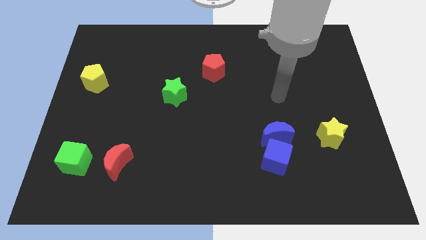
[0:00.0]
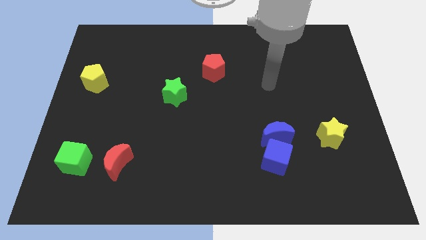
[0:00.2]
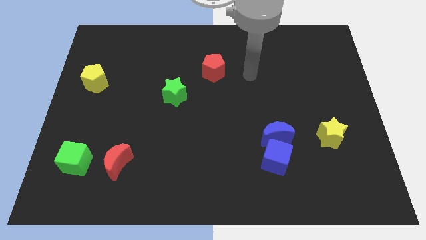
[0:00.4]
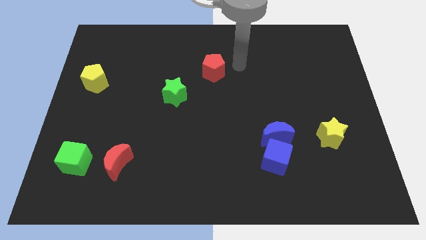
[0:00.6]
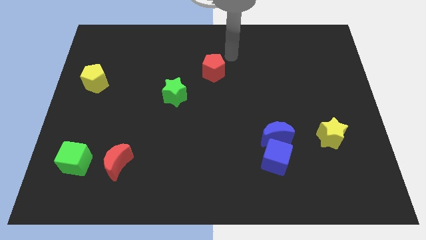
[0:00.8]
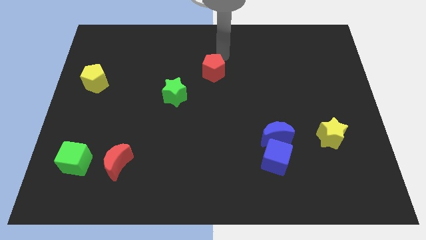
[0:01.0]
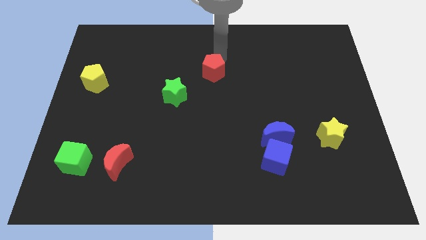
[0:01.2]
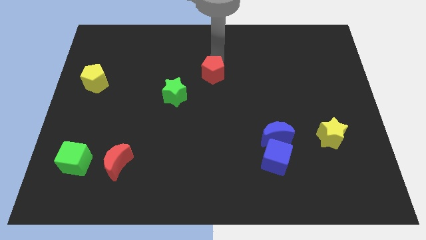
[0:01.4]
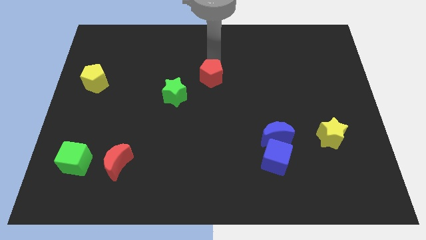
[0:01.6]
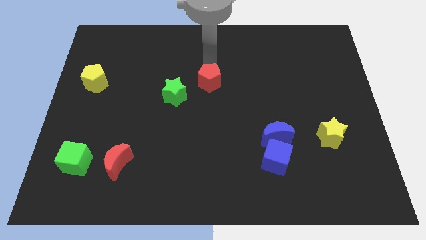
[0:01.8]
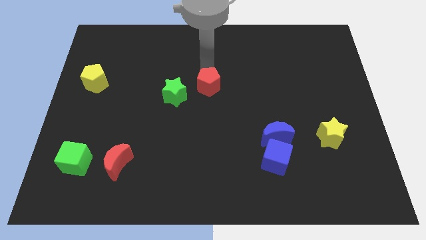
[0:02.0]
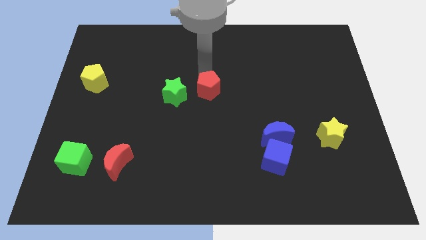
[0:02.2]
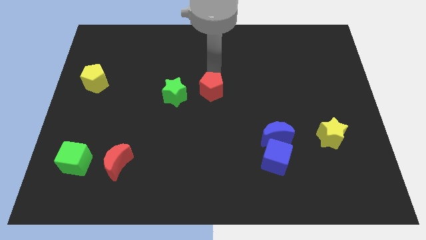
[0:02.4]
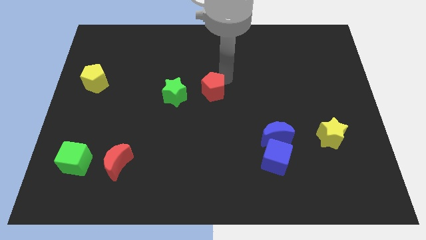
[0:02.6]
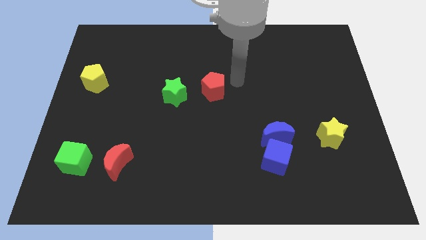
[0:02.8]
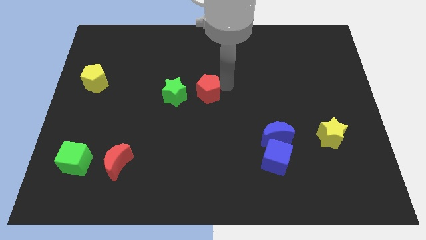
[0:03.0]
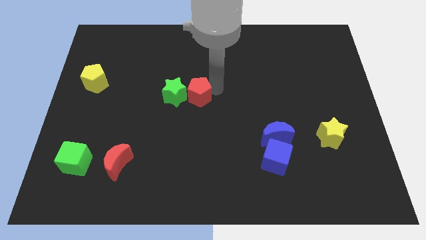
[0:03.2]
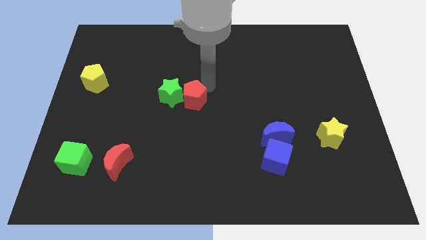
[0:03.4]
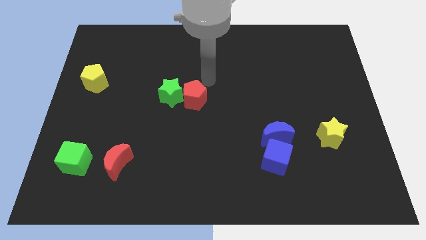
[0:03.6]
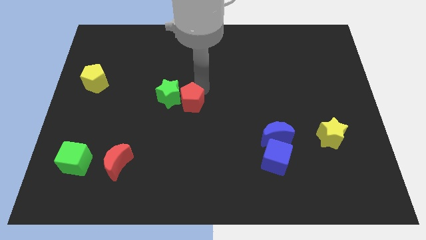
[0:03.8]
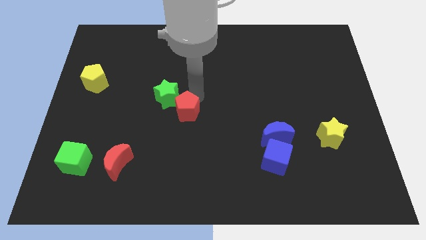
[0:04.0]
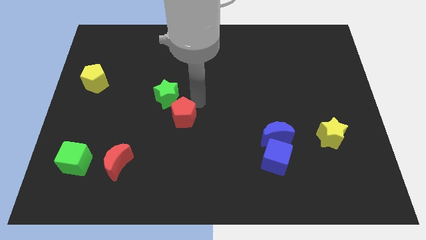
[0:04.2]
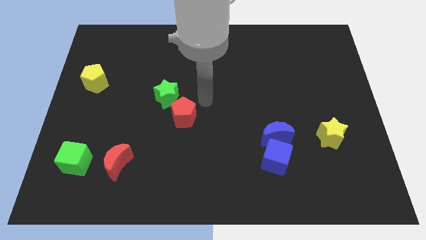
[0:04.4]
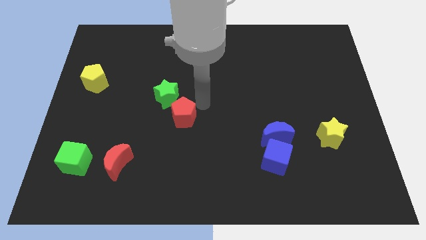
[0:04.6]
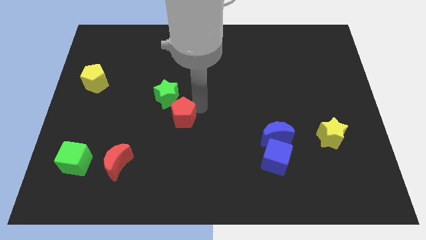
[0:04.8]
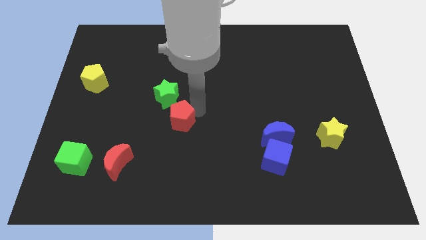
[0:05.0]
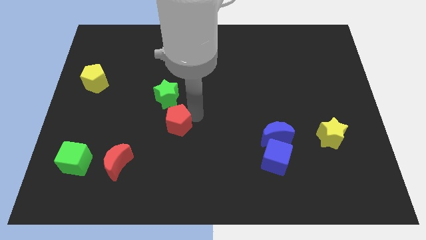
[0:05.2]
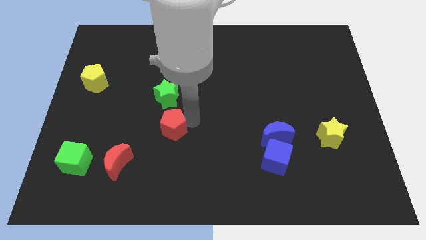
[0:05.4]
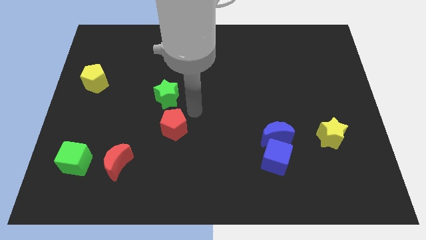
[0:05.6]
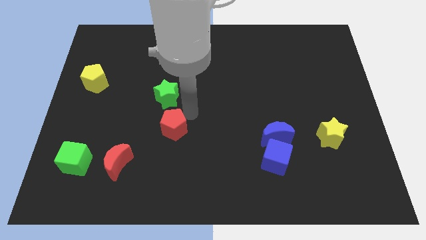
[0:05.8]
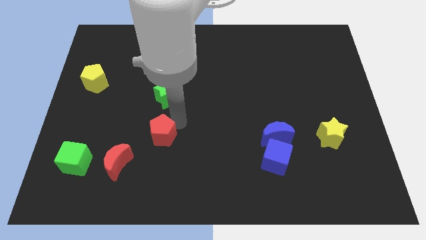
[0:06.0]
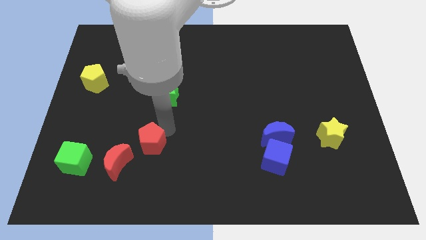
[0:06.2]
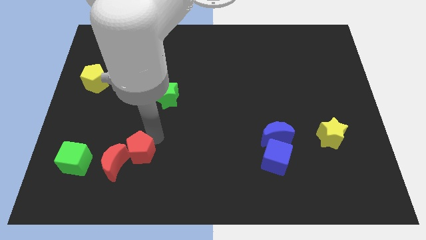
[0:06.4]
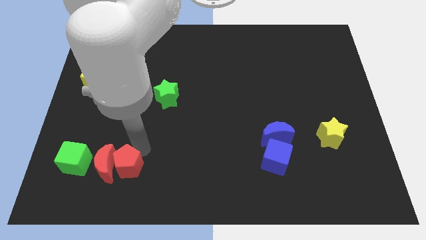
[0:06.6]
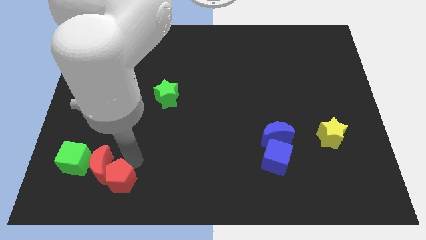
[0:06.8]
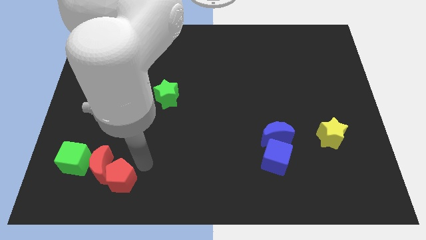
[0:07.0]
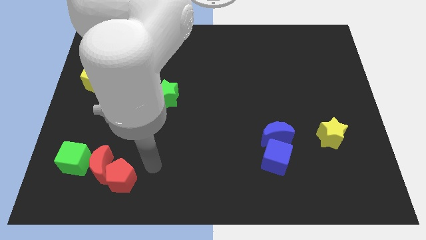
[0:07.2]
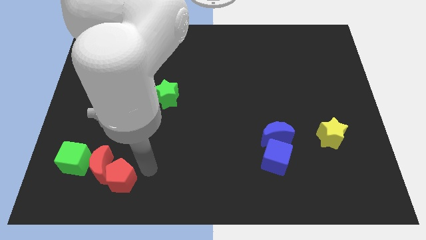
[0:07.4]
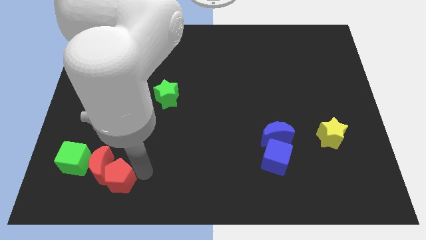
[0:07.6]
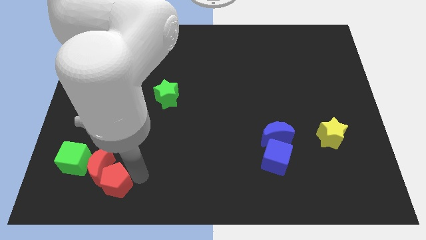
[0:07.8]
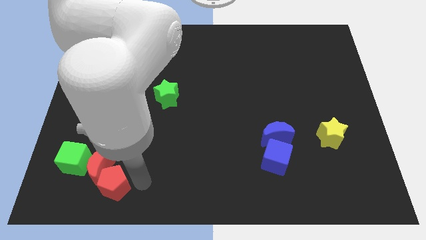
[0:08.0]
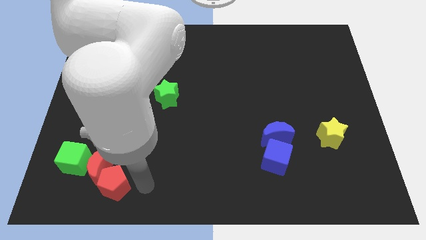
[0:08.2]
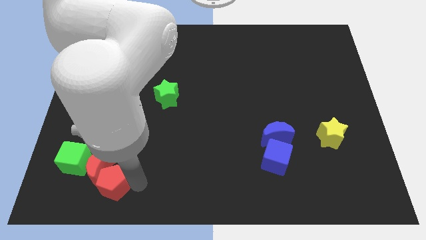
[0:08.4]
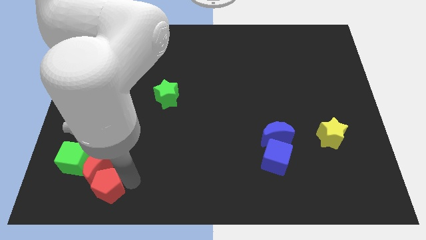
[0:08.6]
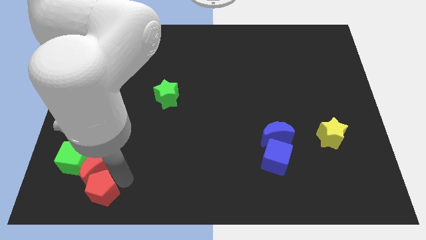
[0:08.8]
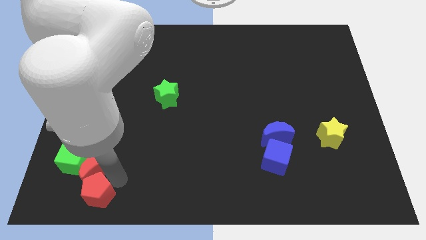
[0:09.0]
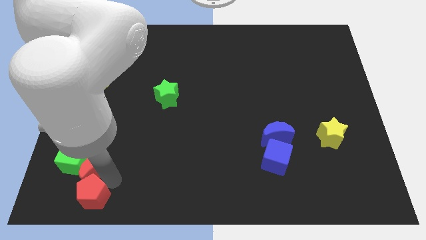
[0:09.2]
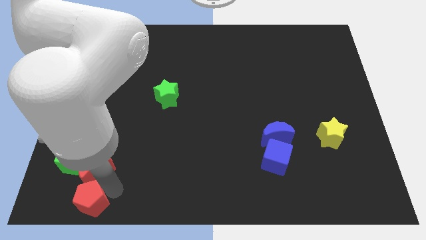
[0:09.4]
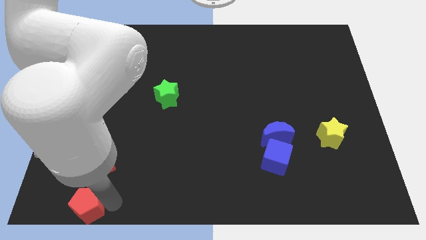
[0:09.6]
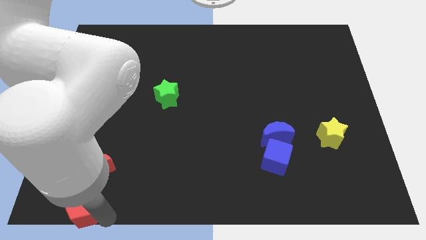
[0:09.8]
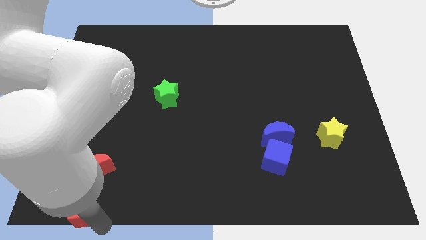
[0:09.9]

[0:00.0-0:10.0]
slide the red pentagon to the bottom left of the board

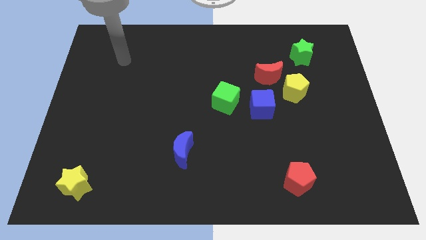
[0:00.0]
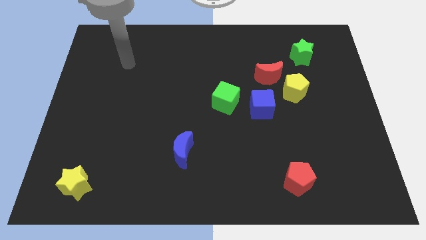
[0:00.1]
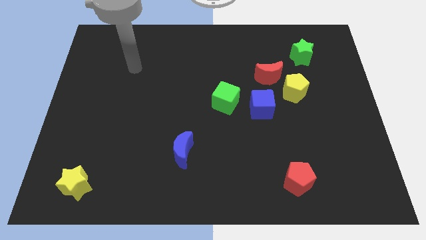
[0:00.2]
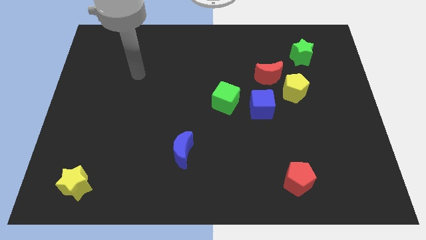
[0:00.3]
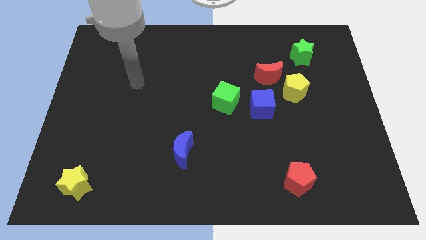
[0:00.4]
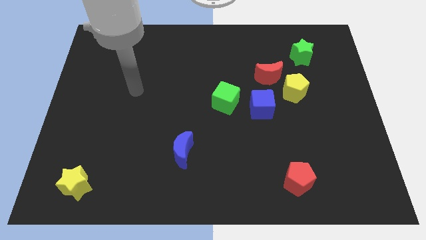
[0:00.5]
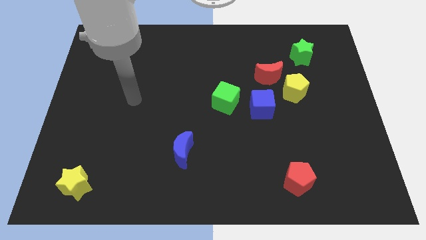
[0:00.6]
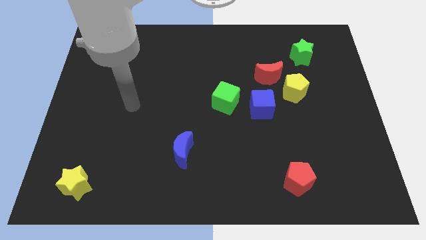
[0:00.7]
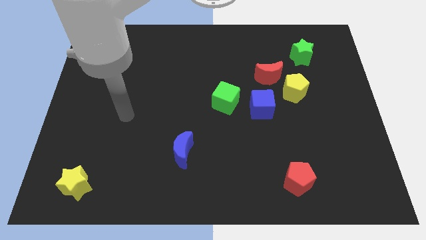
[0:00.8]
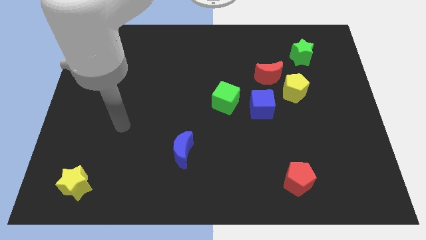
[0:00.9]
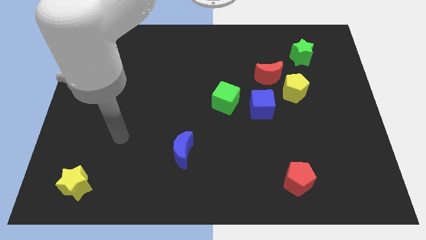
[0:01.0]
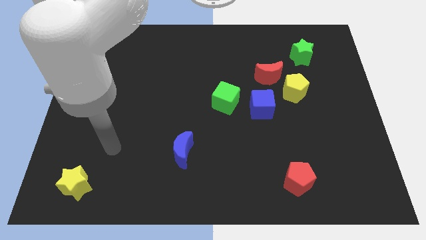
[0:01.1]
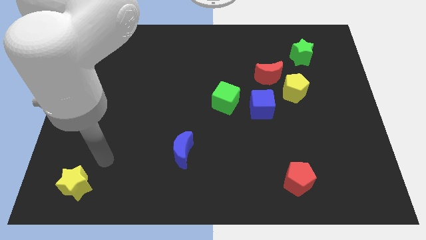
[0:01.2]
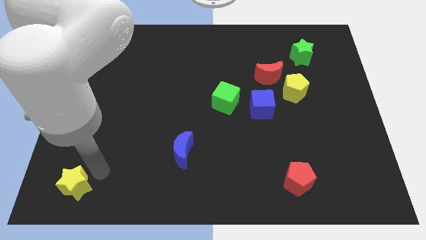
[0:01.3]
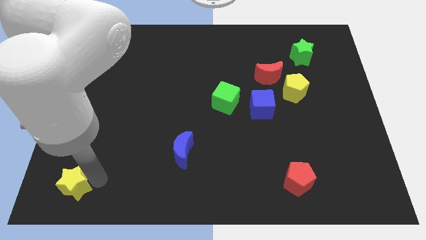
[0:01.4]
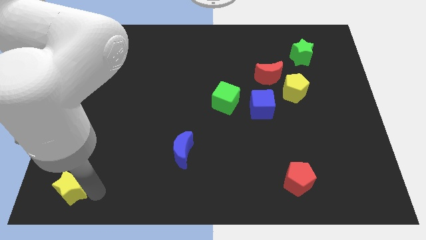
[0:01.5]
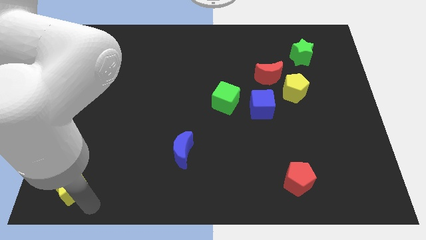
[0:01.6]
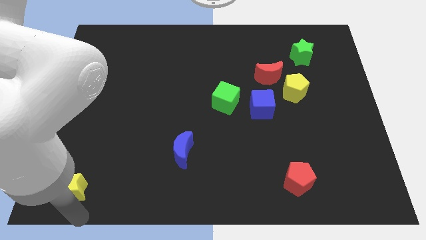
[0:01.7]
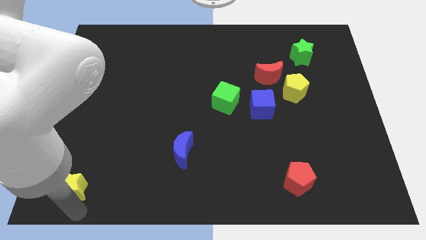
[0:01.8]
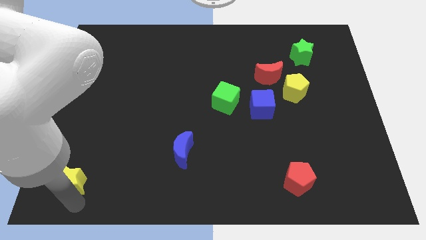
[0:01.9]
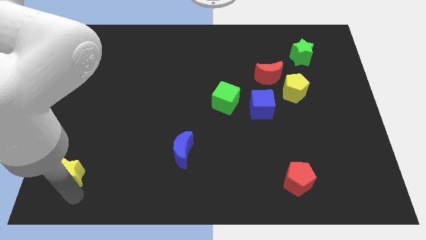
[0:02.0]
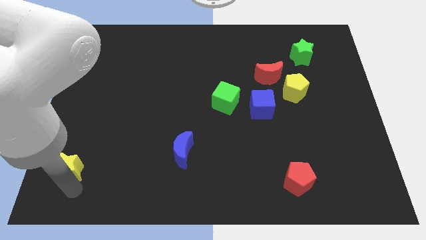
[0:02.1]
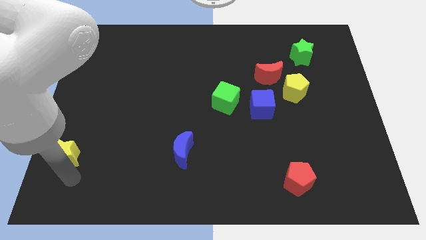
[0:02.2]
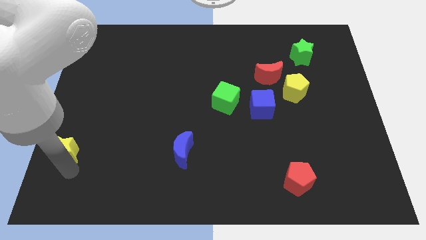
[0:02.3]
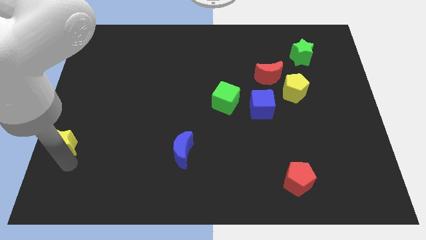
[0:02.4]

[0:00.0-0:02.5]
slide the yellow star to the left side
